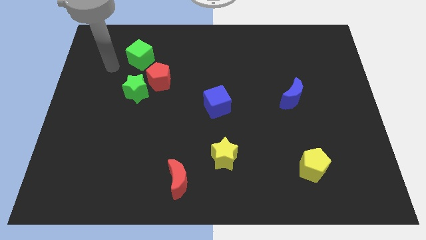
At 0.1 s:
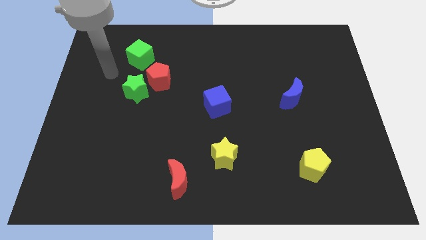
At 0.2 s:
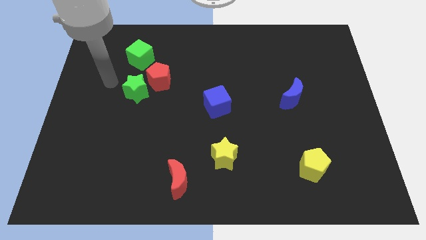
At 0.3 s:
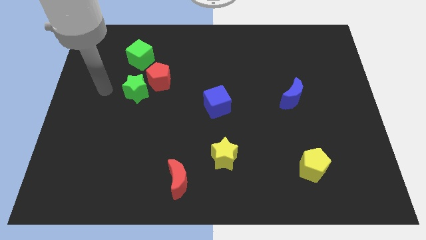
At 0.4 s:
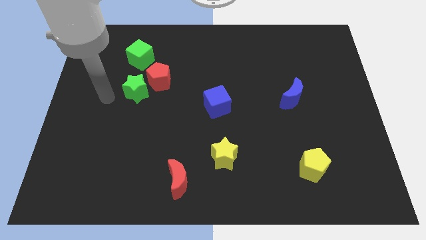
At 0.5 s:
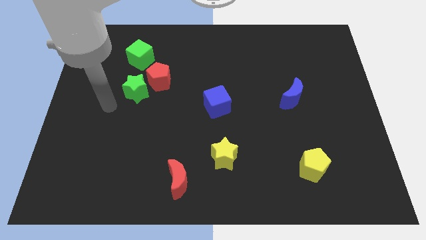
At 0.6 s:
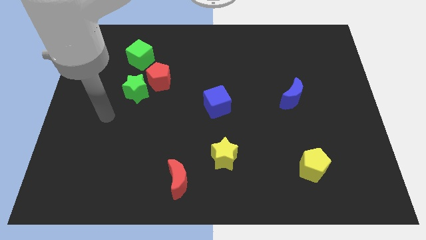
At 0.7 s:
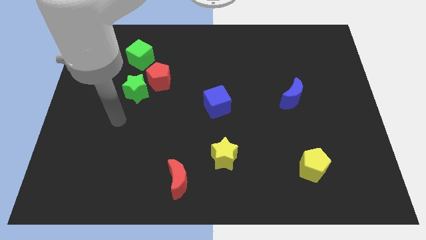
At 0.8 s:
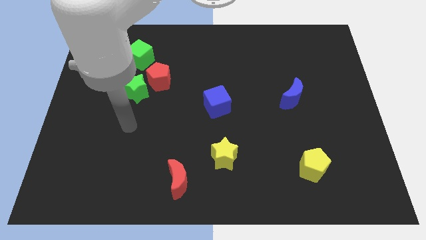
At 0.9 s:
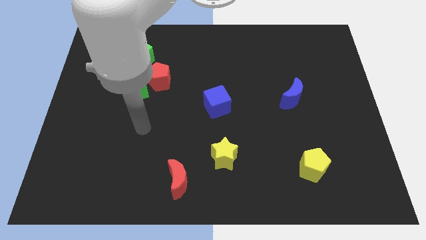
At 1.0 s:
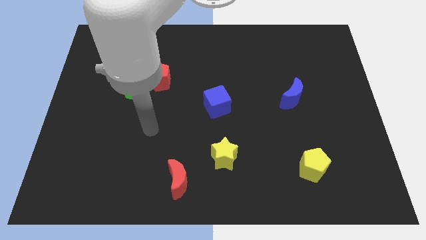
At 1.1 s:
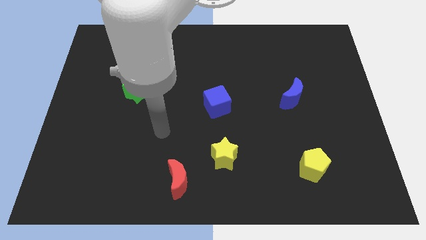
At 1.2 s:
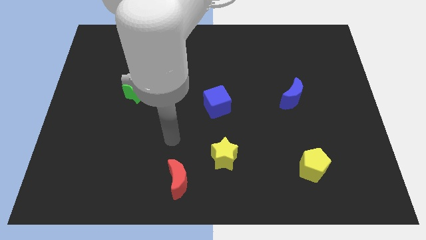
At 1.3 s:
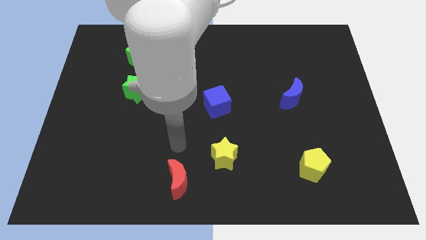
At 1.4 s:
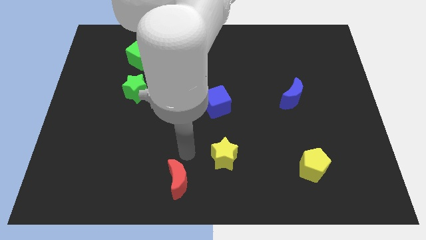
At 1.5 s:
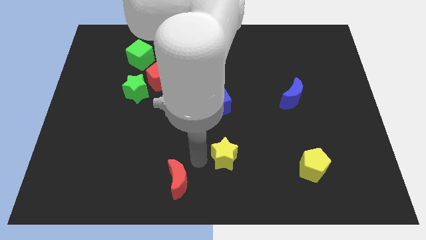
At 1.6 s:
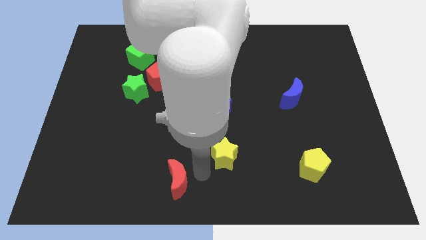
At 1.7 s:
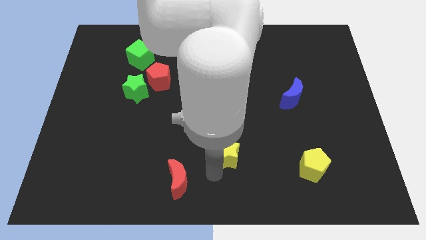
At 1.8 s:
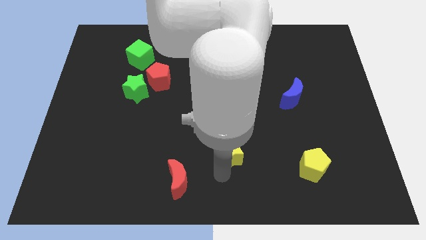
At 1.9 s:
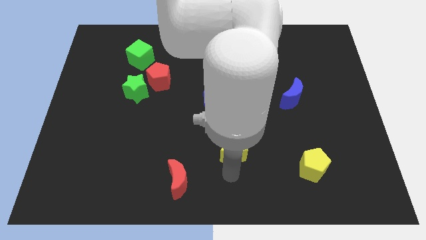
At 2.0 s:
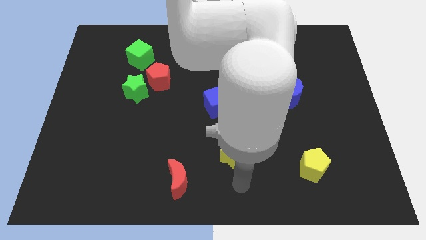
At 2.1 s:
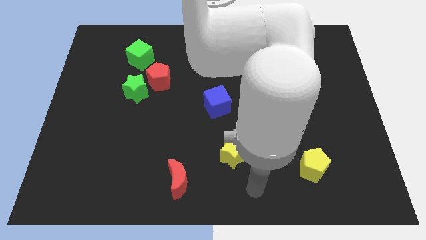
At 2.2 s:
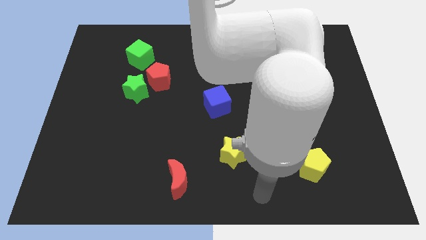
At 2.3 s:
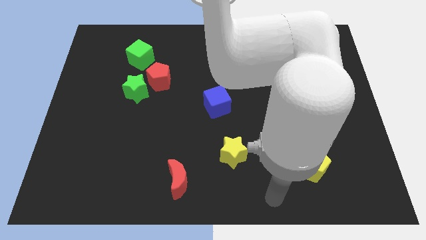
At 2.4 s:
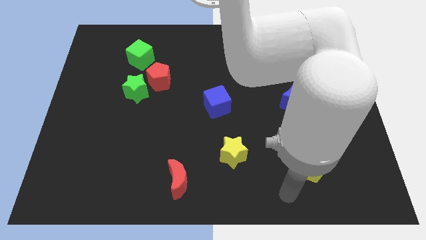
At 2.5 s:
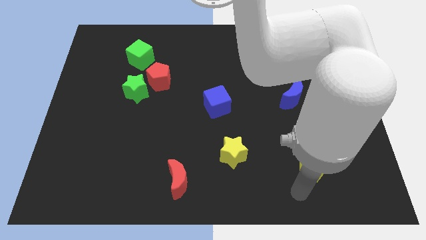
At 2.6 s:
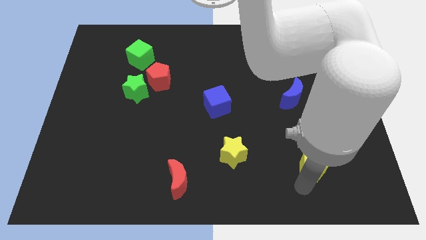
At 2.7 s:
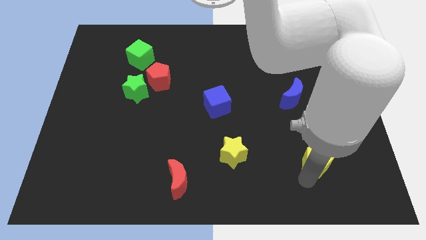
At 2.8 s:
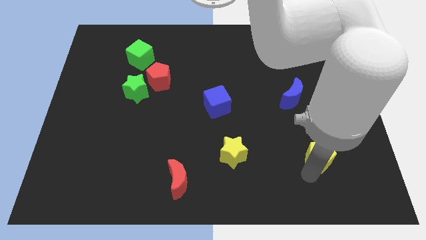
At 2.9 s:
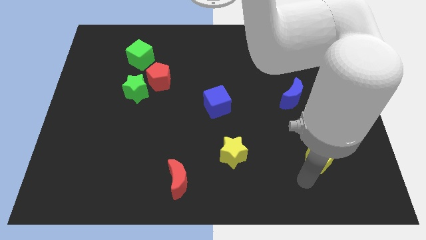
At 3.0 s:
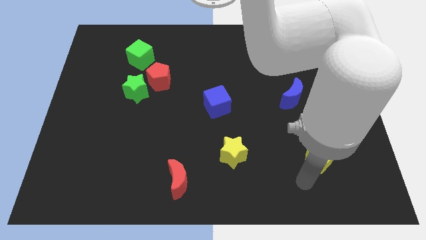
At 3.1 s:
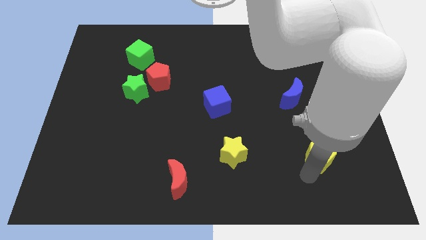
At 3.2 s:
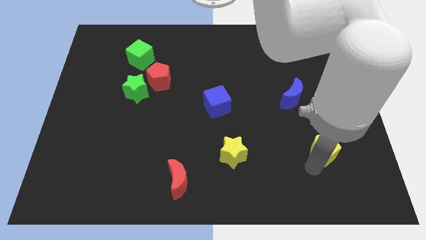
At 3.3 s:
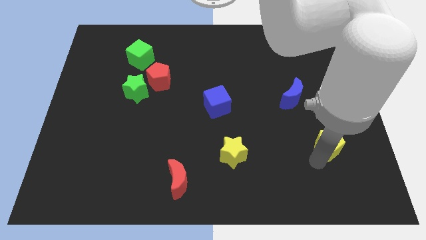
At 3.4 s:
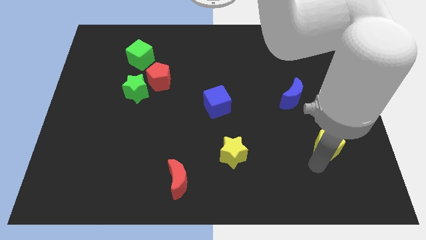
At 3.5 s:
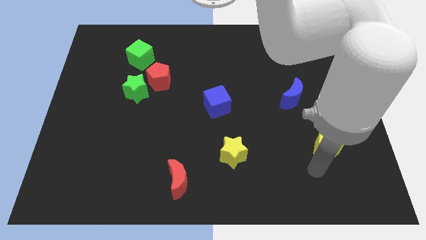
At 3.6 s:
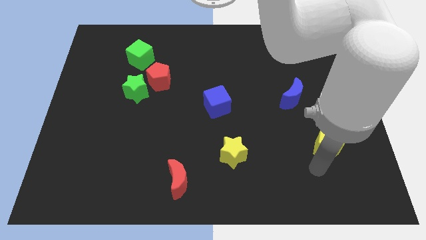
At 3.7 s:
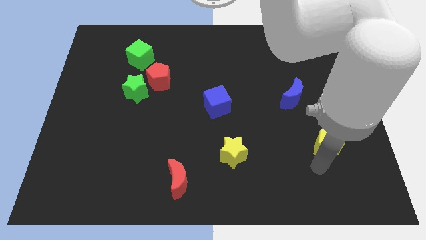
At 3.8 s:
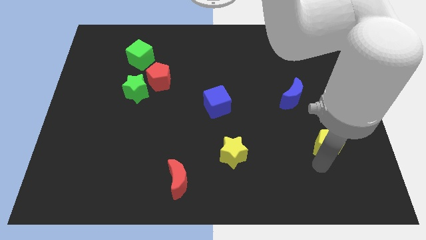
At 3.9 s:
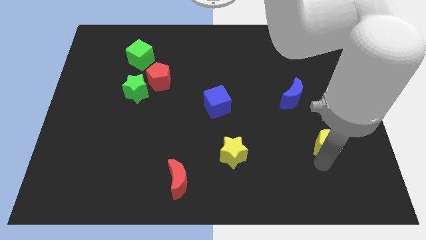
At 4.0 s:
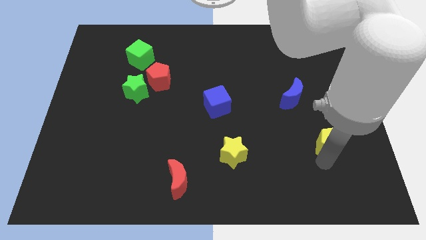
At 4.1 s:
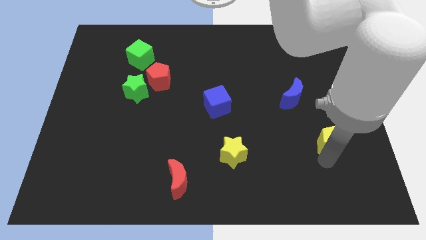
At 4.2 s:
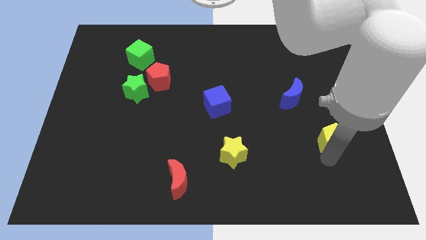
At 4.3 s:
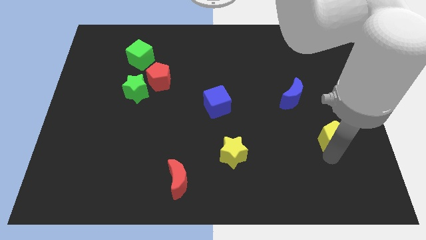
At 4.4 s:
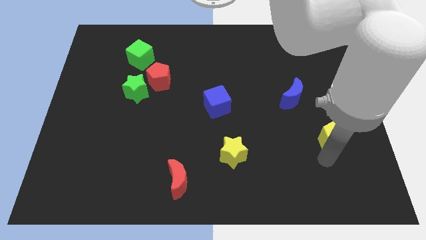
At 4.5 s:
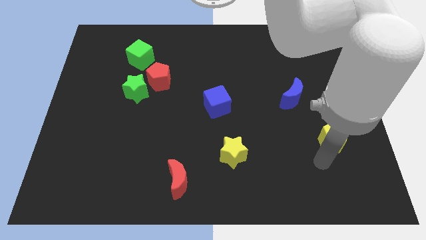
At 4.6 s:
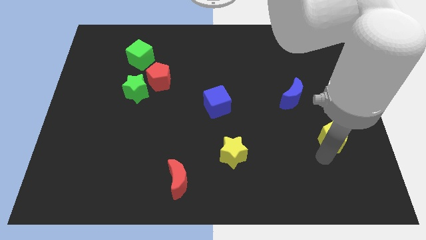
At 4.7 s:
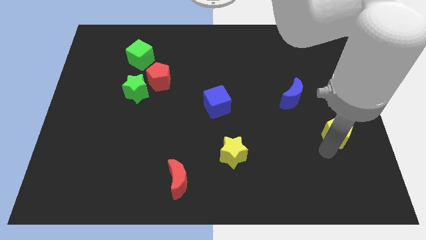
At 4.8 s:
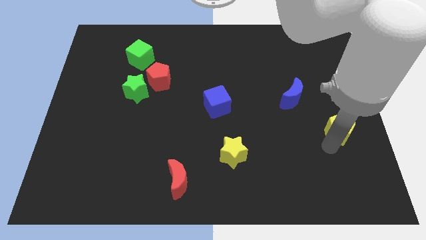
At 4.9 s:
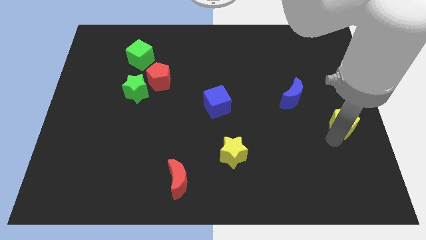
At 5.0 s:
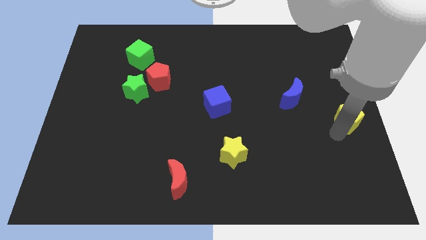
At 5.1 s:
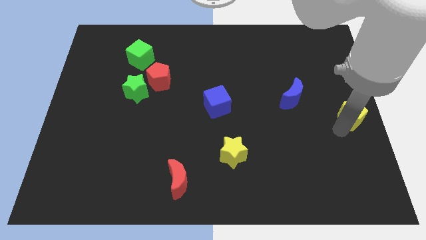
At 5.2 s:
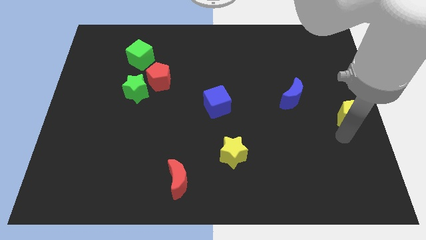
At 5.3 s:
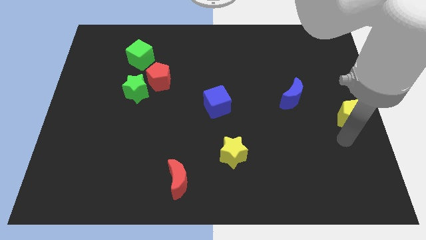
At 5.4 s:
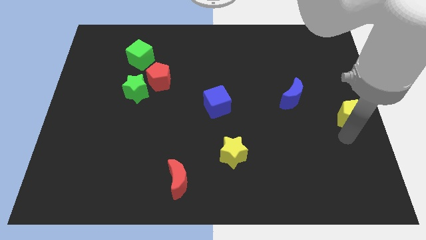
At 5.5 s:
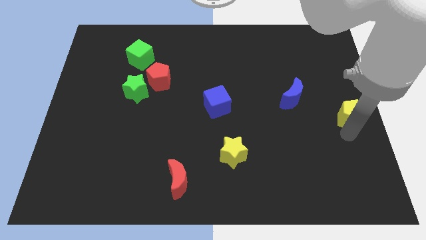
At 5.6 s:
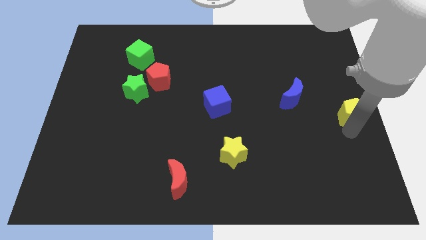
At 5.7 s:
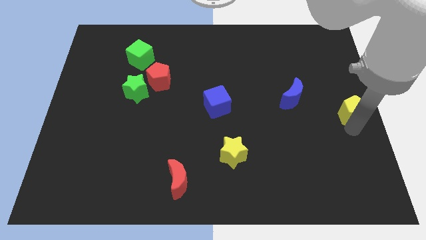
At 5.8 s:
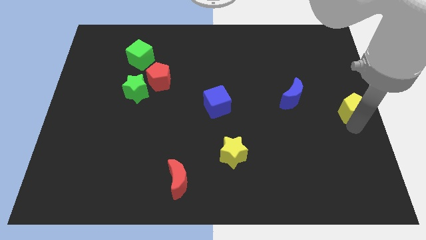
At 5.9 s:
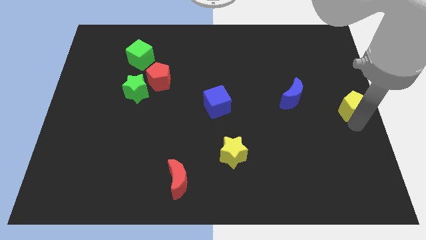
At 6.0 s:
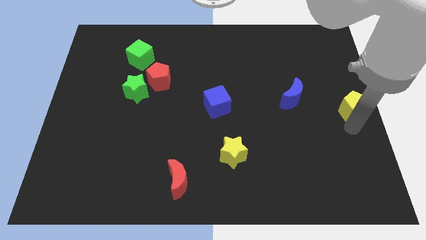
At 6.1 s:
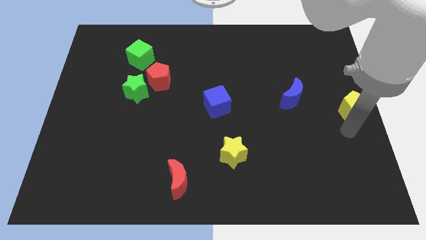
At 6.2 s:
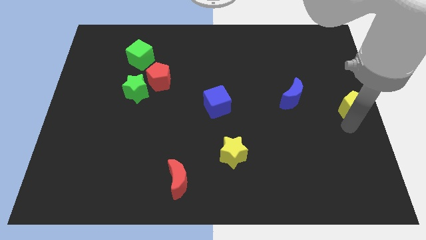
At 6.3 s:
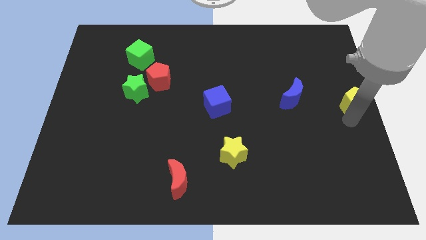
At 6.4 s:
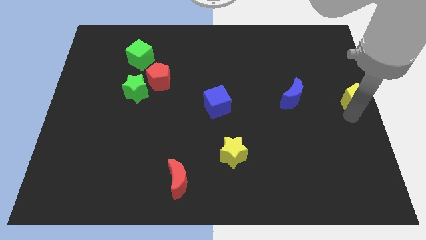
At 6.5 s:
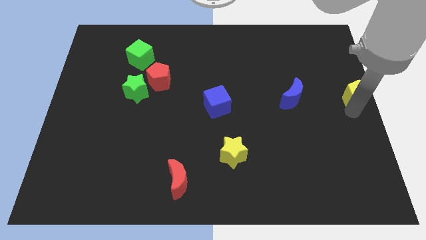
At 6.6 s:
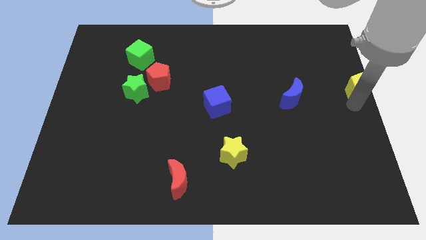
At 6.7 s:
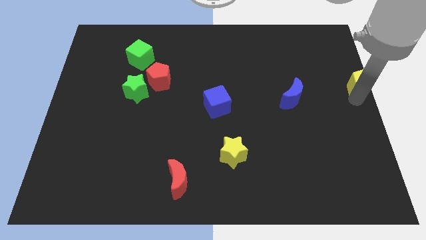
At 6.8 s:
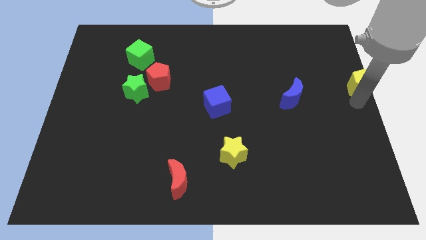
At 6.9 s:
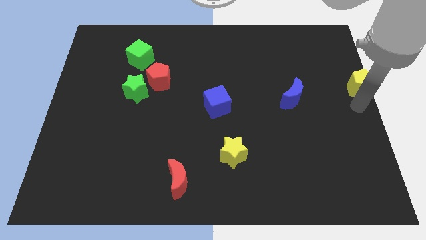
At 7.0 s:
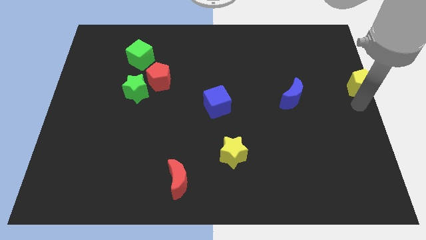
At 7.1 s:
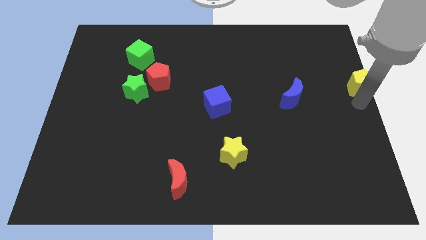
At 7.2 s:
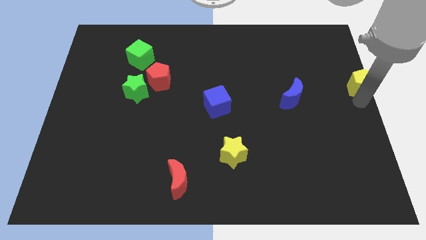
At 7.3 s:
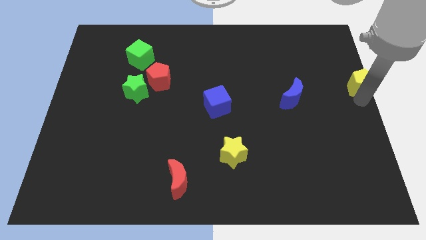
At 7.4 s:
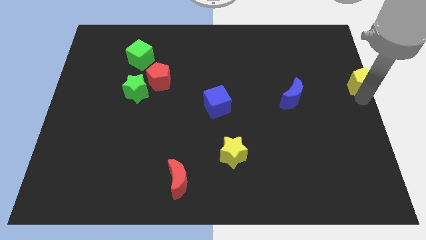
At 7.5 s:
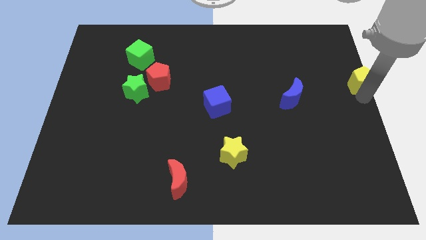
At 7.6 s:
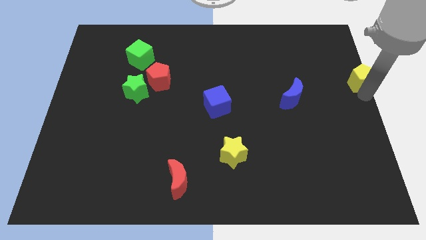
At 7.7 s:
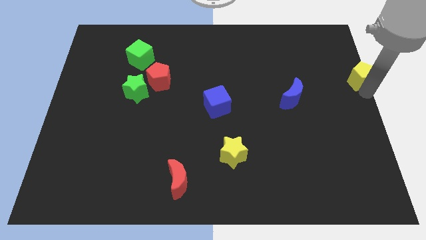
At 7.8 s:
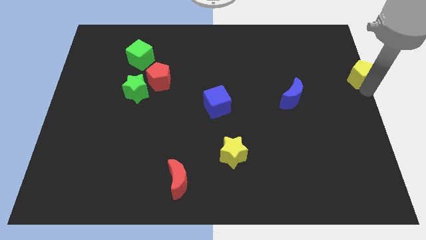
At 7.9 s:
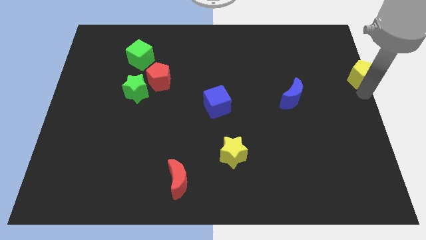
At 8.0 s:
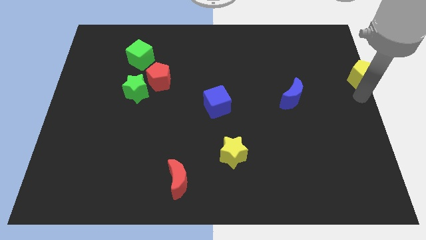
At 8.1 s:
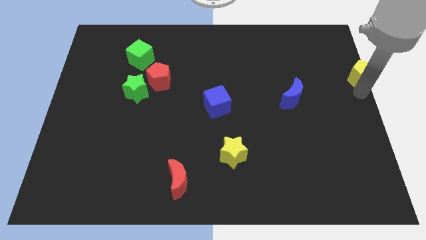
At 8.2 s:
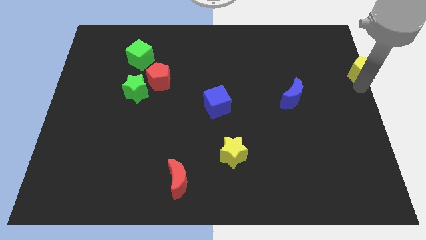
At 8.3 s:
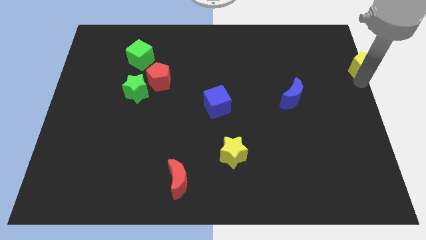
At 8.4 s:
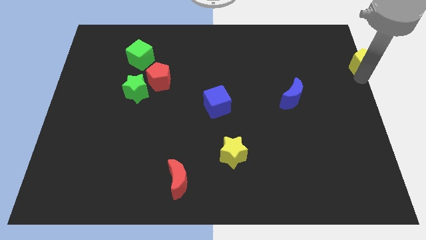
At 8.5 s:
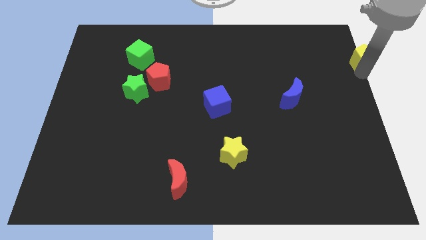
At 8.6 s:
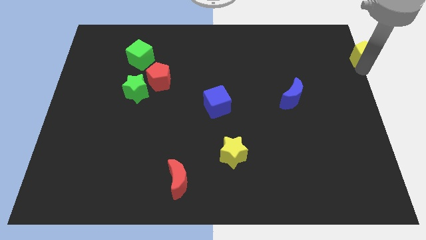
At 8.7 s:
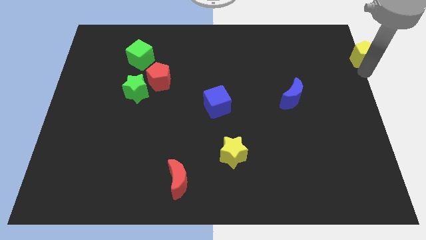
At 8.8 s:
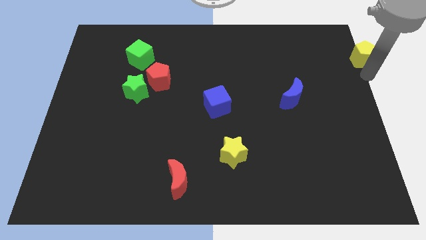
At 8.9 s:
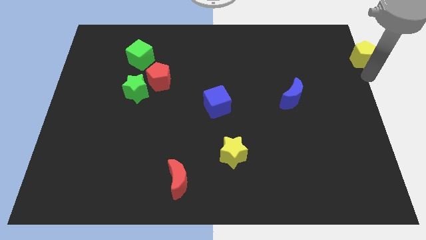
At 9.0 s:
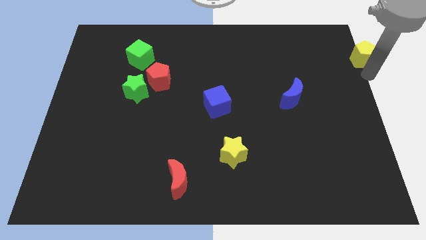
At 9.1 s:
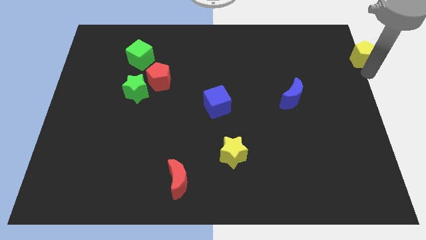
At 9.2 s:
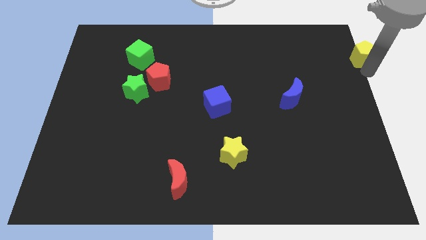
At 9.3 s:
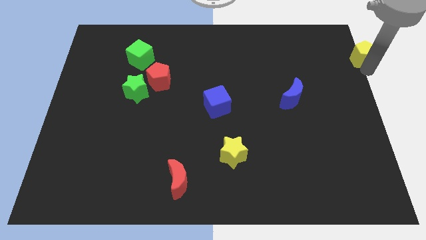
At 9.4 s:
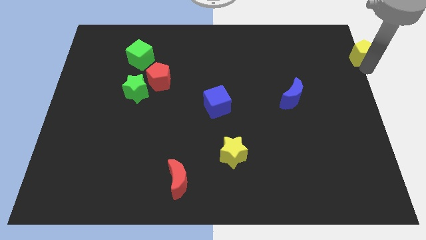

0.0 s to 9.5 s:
move the yellow pentagon to the upper right corner
